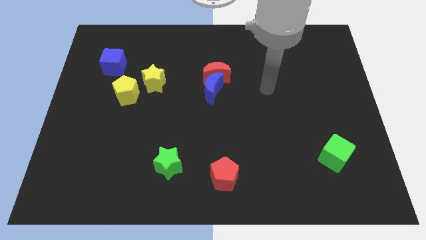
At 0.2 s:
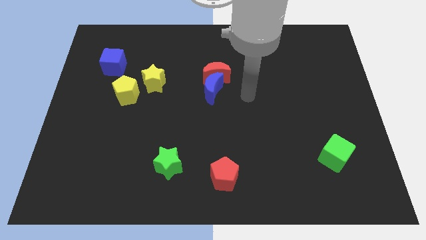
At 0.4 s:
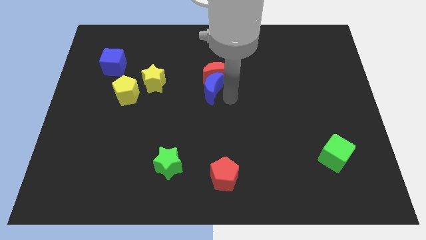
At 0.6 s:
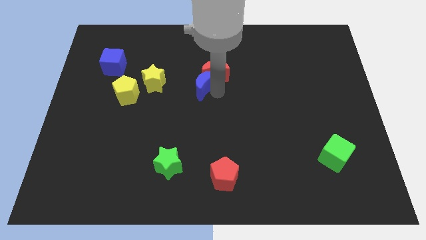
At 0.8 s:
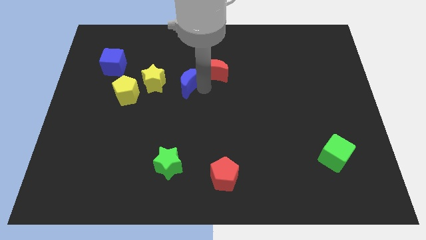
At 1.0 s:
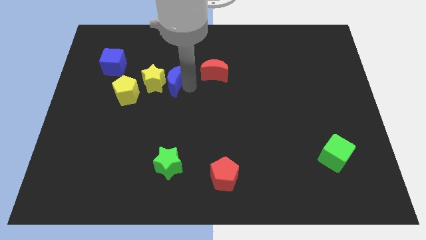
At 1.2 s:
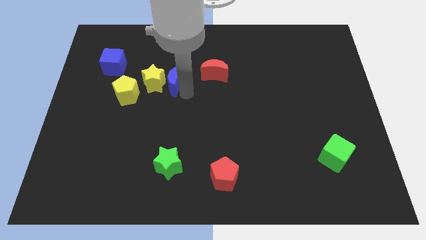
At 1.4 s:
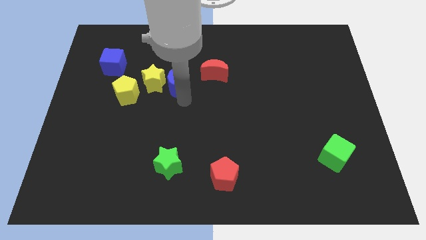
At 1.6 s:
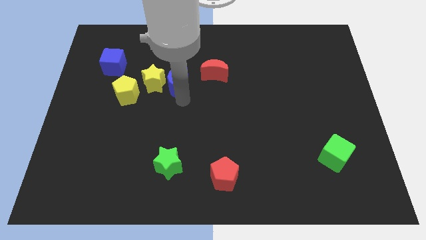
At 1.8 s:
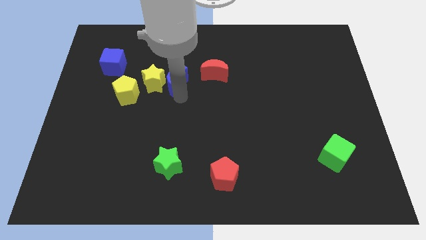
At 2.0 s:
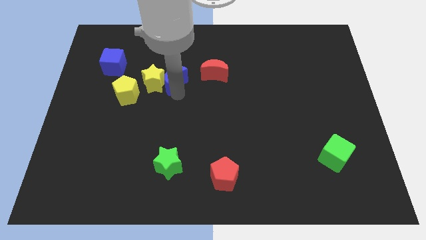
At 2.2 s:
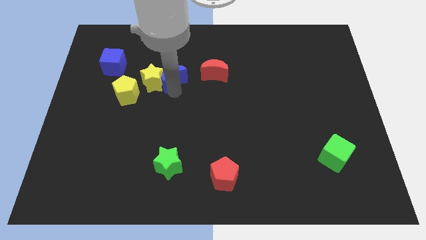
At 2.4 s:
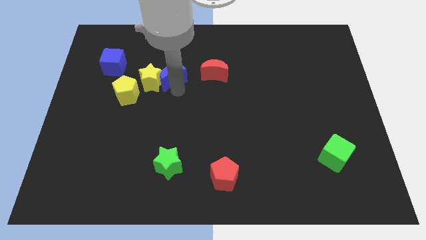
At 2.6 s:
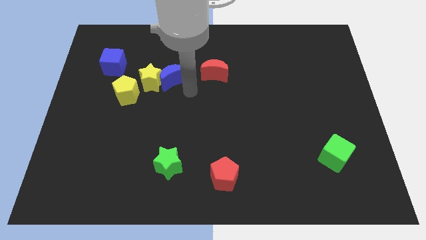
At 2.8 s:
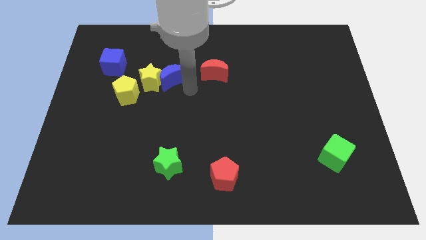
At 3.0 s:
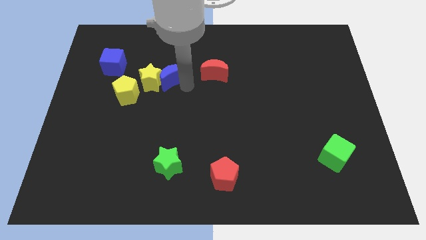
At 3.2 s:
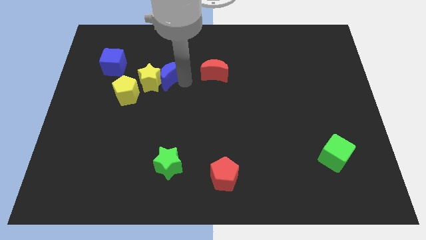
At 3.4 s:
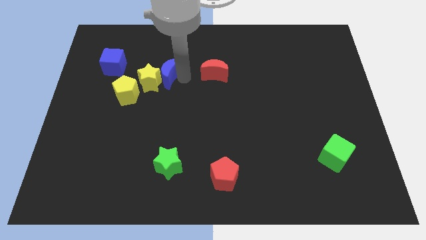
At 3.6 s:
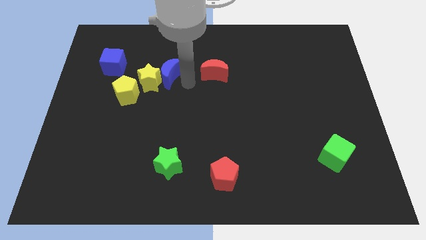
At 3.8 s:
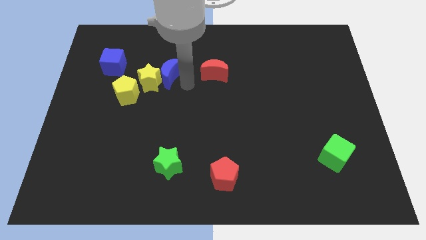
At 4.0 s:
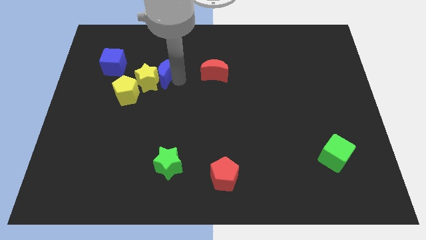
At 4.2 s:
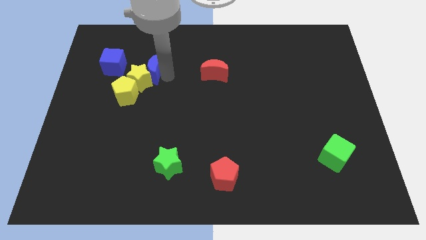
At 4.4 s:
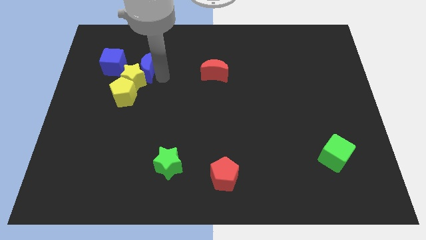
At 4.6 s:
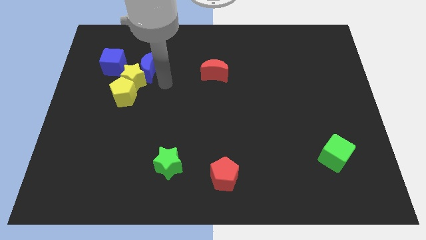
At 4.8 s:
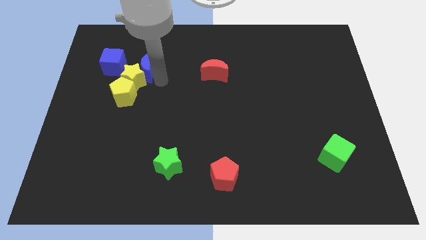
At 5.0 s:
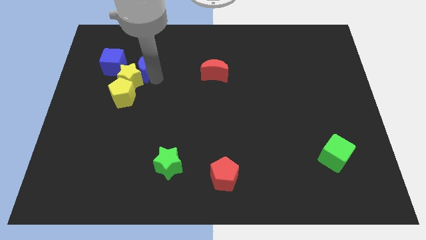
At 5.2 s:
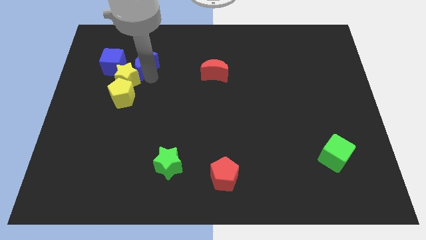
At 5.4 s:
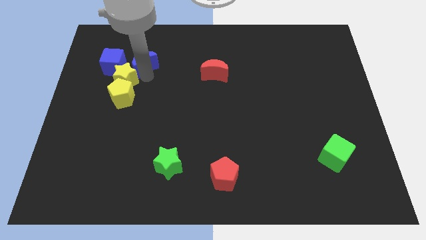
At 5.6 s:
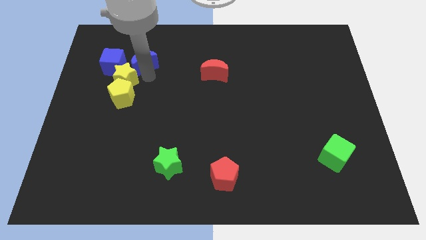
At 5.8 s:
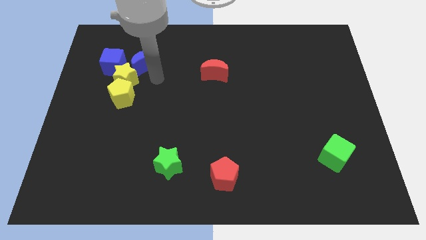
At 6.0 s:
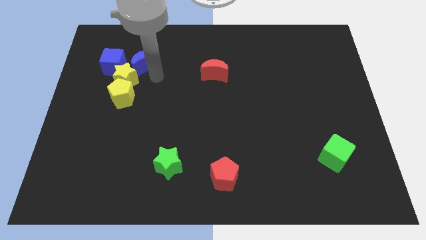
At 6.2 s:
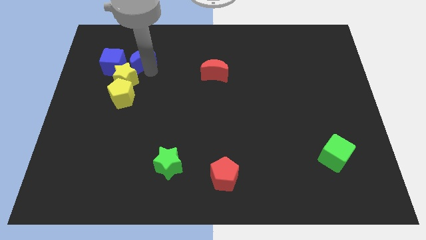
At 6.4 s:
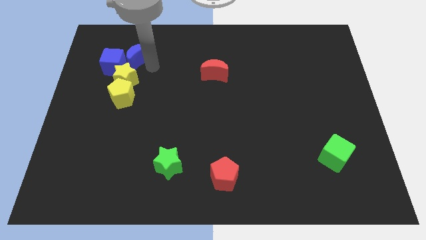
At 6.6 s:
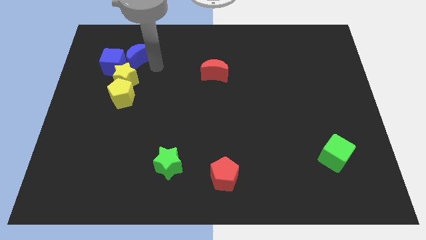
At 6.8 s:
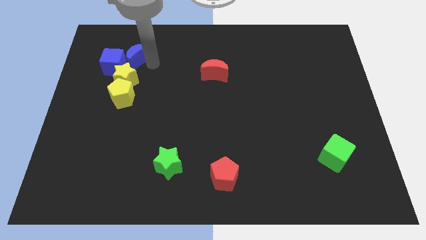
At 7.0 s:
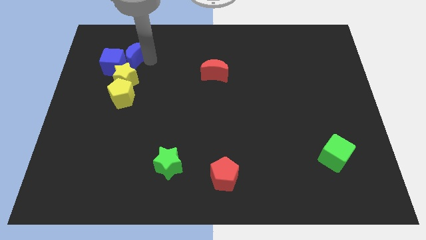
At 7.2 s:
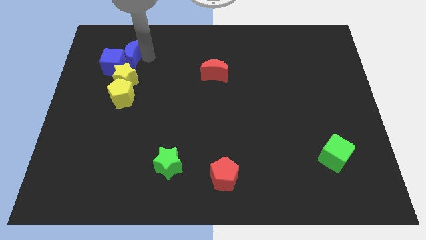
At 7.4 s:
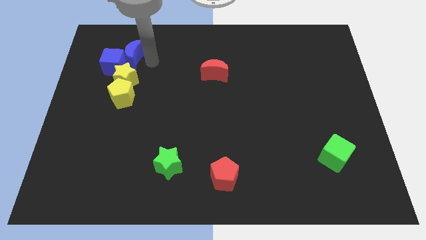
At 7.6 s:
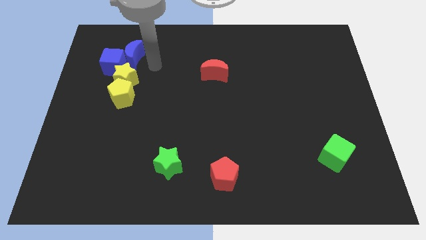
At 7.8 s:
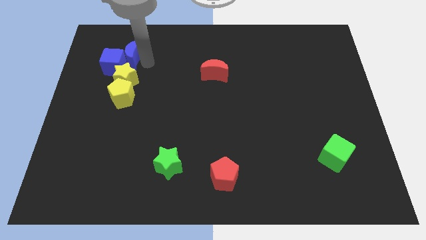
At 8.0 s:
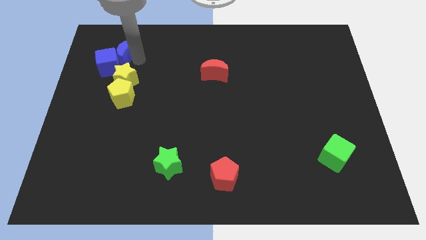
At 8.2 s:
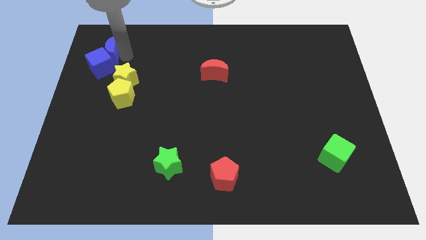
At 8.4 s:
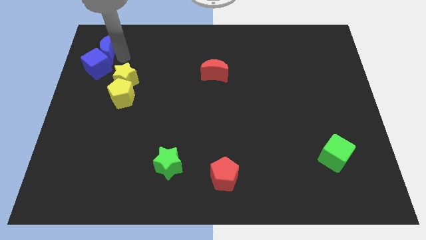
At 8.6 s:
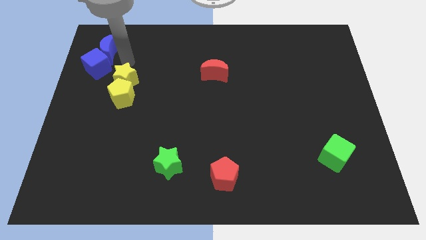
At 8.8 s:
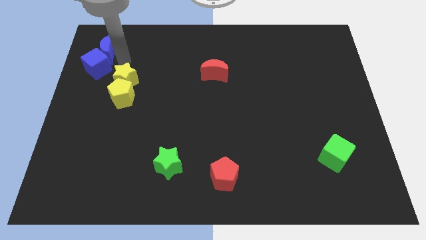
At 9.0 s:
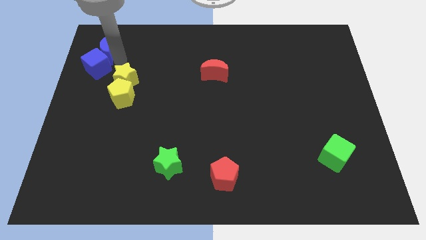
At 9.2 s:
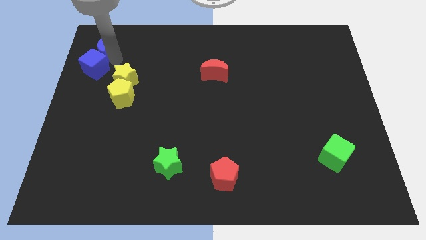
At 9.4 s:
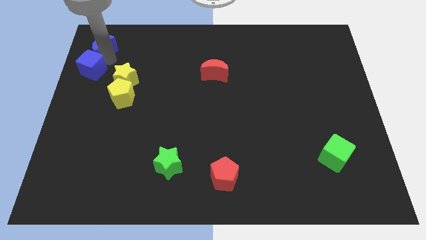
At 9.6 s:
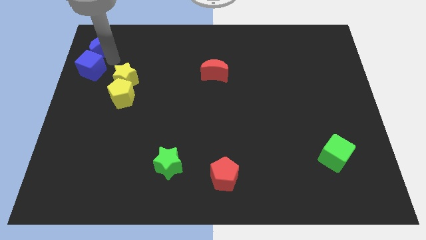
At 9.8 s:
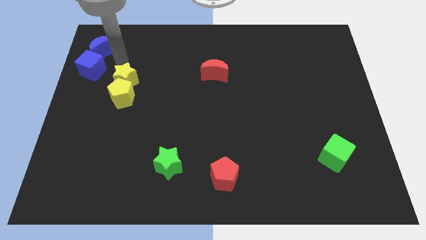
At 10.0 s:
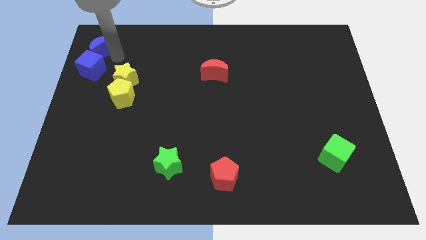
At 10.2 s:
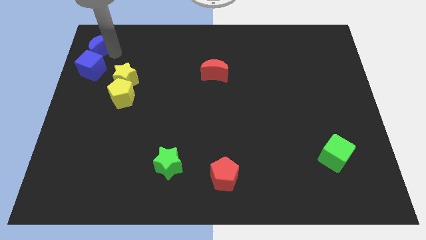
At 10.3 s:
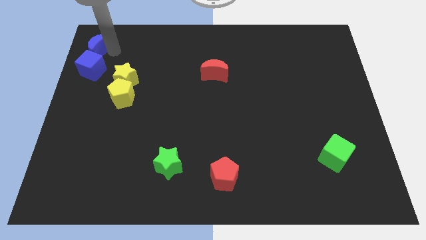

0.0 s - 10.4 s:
put the blue moon to the top left

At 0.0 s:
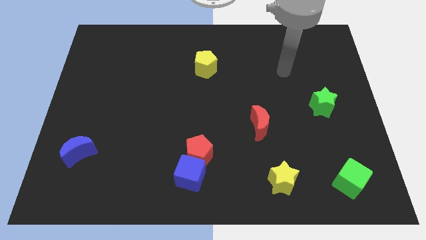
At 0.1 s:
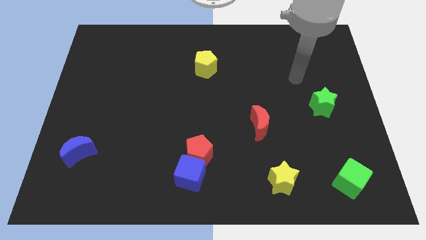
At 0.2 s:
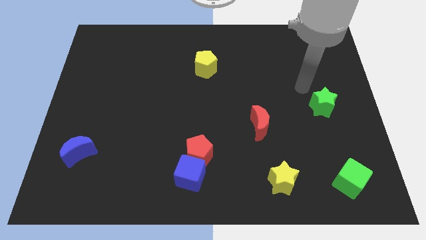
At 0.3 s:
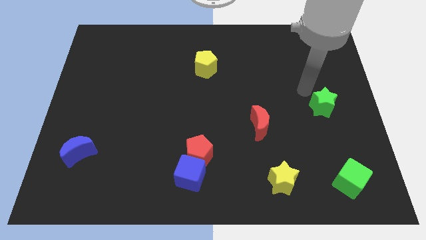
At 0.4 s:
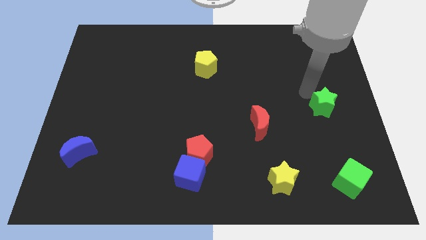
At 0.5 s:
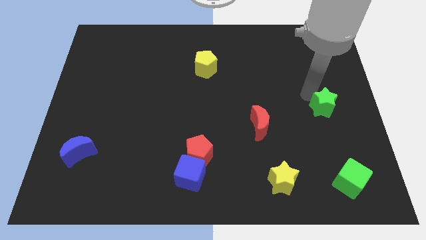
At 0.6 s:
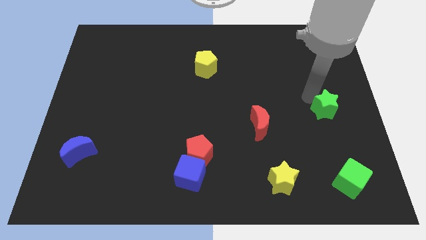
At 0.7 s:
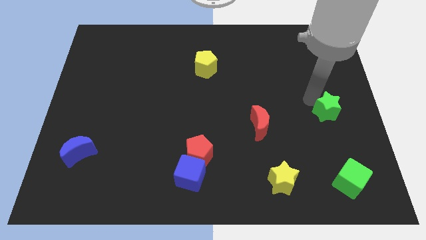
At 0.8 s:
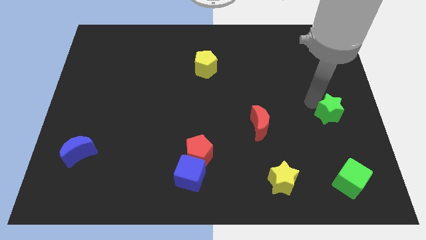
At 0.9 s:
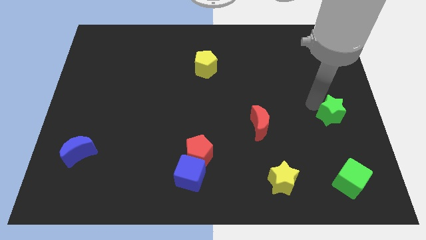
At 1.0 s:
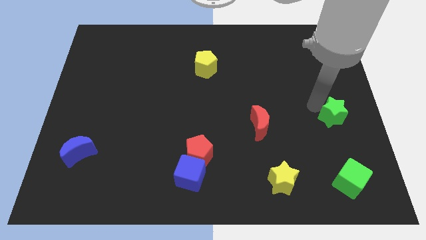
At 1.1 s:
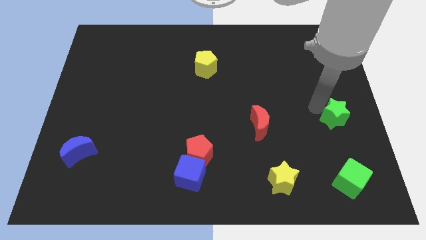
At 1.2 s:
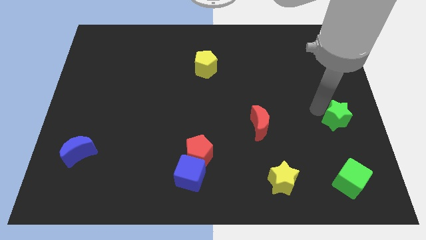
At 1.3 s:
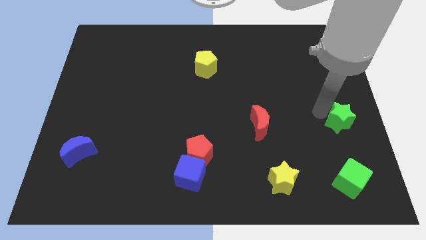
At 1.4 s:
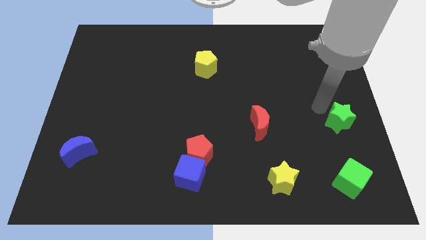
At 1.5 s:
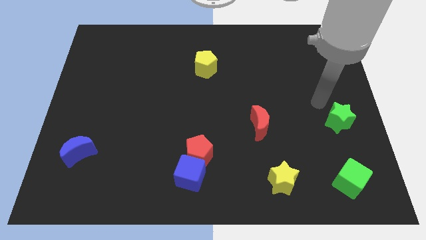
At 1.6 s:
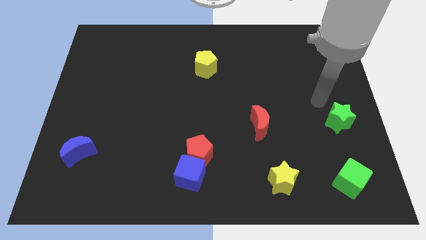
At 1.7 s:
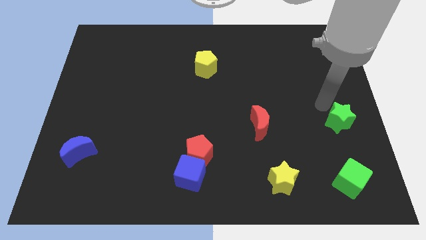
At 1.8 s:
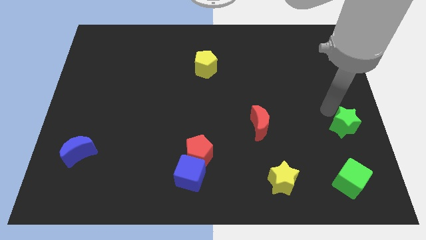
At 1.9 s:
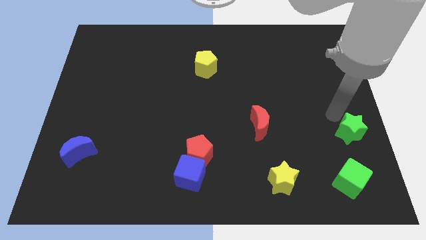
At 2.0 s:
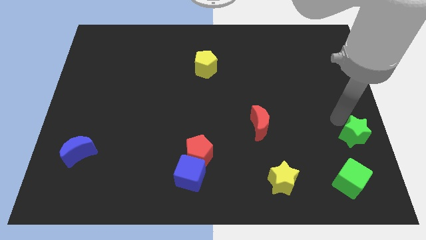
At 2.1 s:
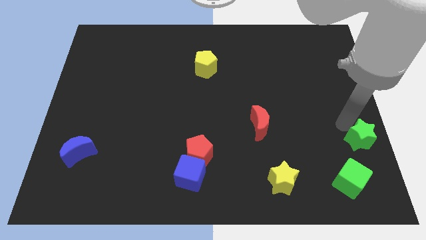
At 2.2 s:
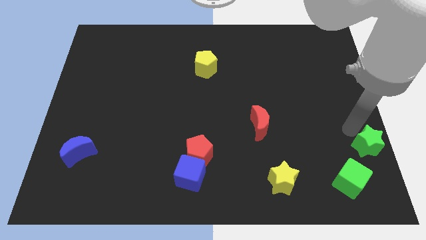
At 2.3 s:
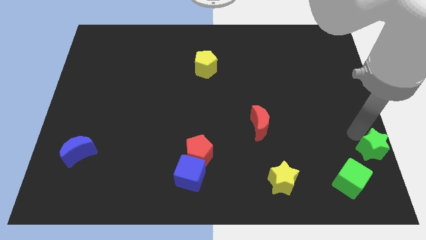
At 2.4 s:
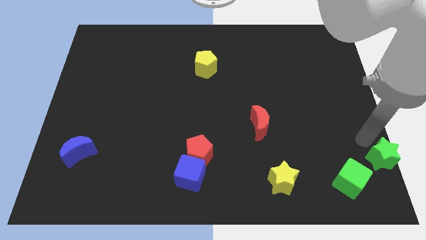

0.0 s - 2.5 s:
slide the green star to the lower right corner
